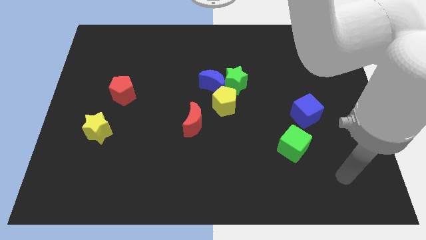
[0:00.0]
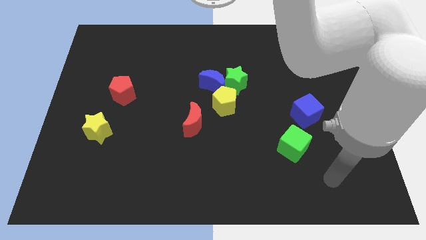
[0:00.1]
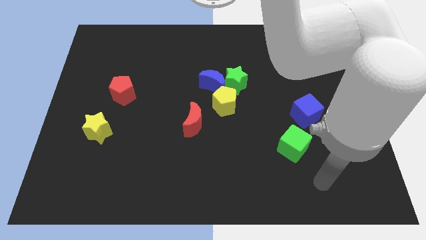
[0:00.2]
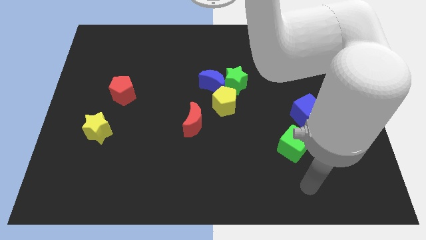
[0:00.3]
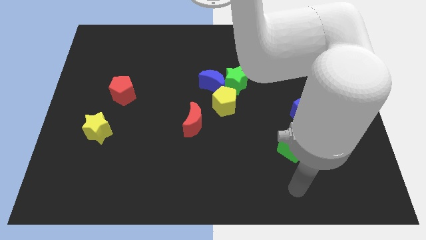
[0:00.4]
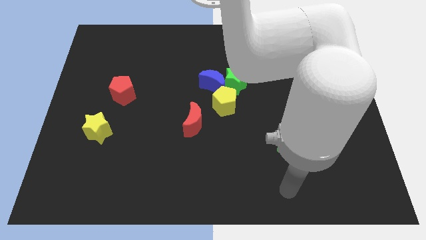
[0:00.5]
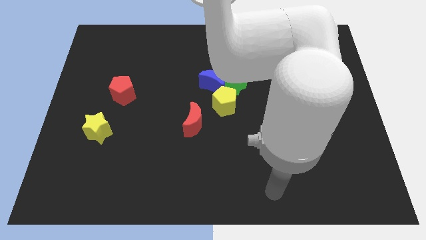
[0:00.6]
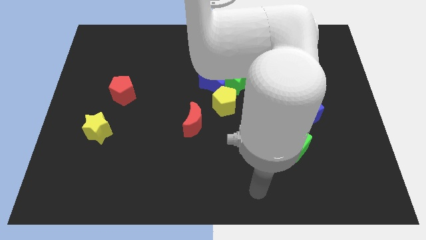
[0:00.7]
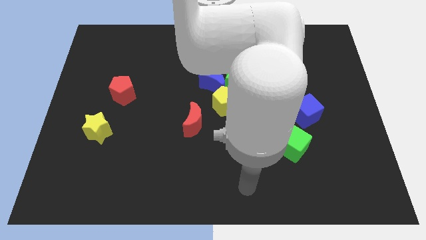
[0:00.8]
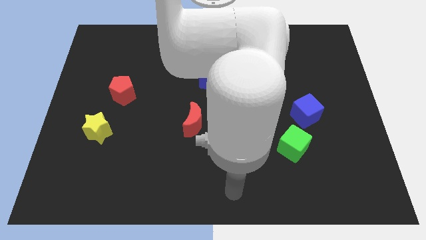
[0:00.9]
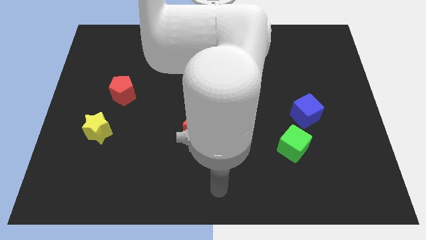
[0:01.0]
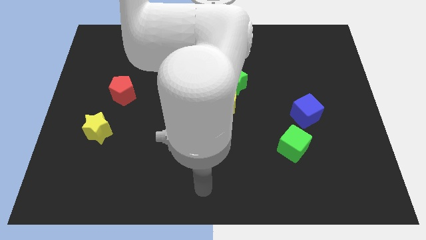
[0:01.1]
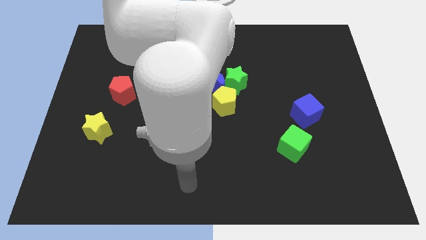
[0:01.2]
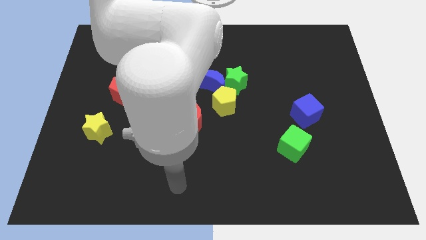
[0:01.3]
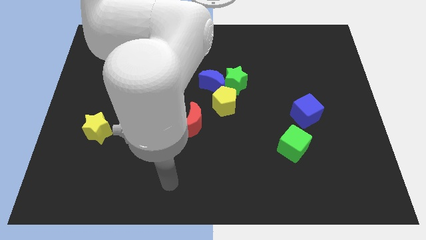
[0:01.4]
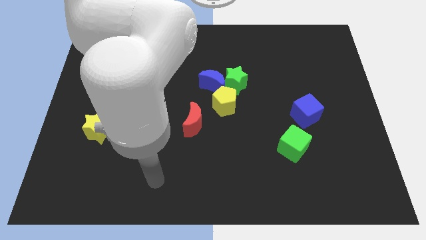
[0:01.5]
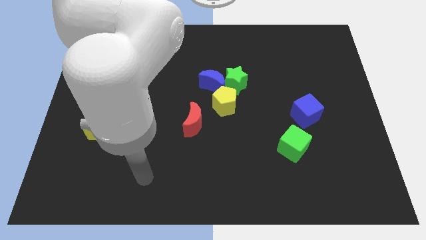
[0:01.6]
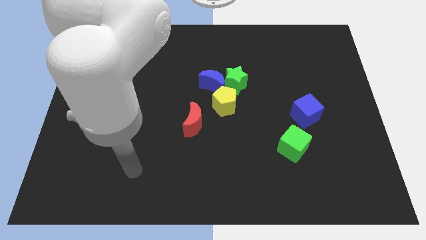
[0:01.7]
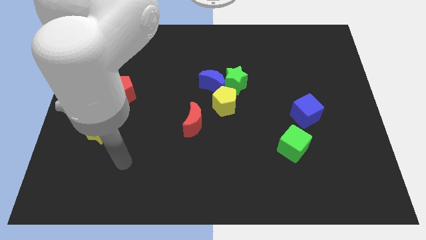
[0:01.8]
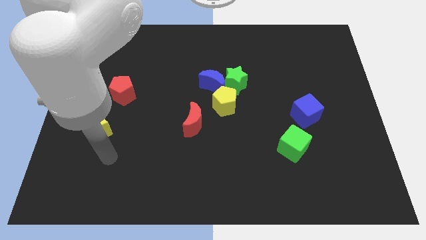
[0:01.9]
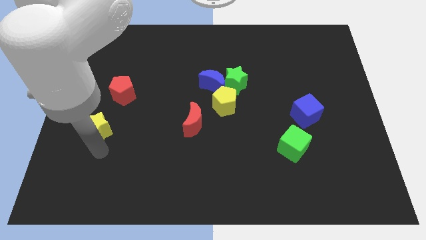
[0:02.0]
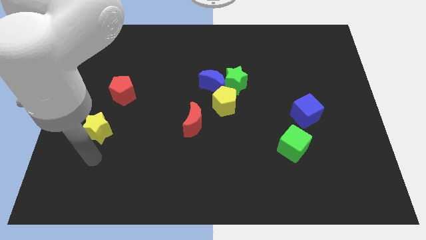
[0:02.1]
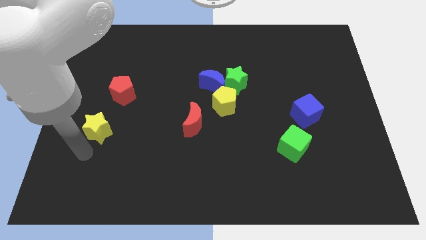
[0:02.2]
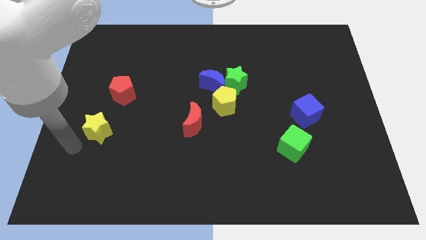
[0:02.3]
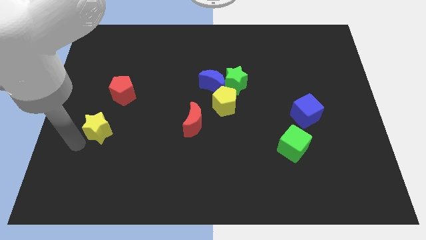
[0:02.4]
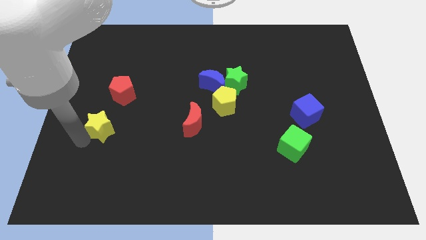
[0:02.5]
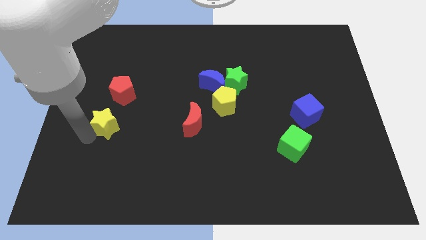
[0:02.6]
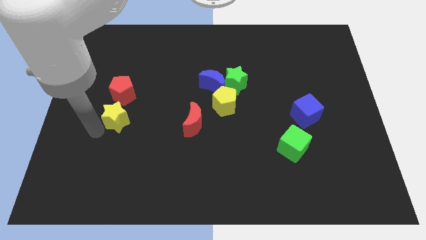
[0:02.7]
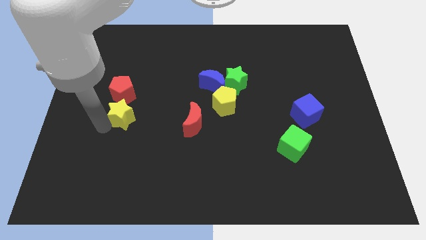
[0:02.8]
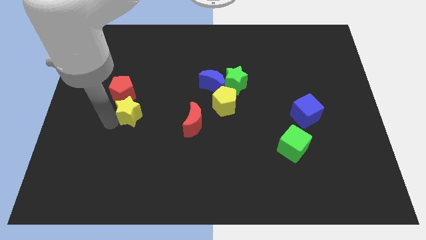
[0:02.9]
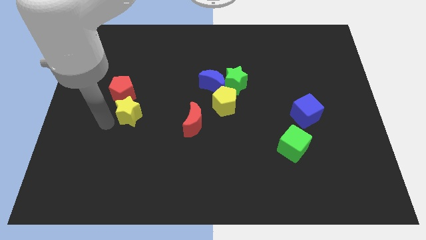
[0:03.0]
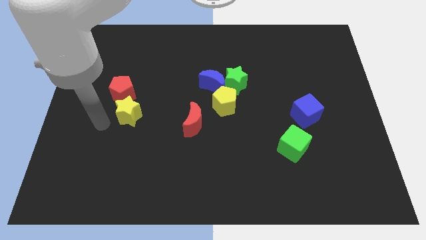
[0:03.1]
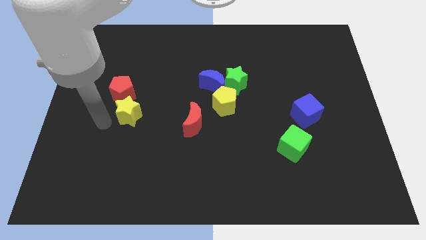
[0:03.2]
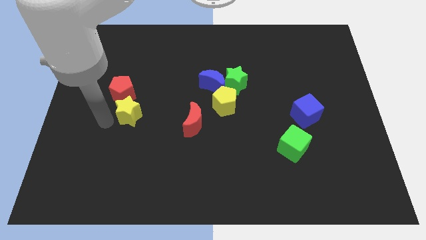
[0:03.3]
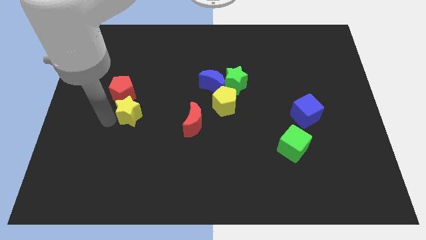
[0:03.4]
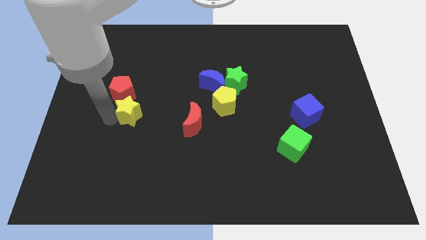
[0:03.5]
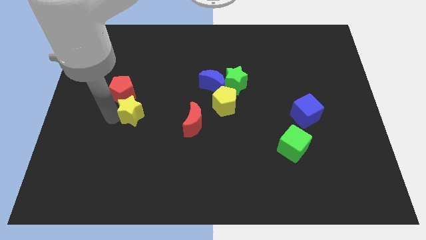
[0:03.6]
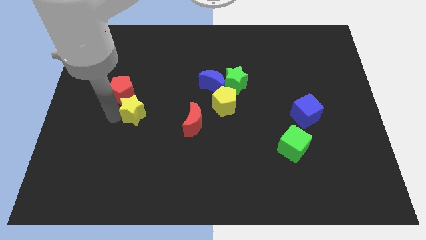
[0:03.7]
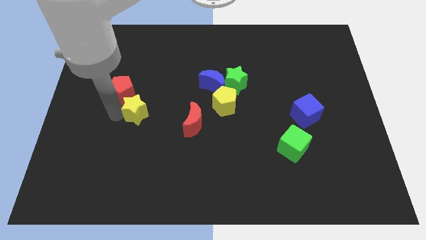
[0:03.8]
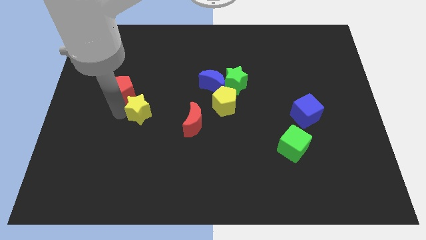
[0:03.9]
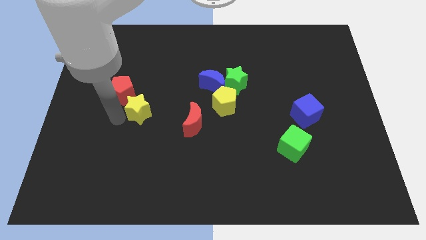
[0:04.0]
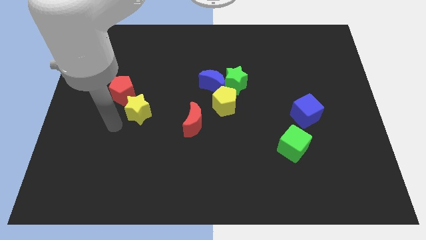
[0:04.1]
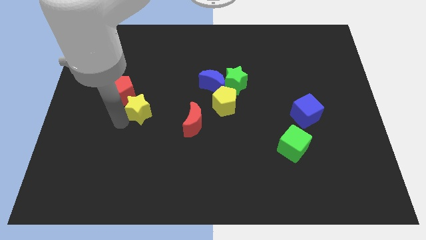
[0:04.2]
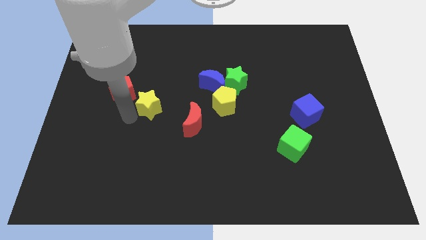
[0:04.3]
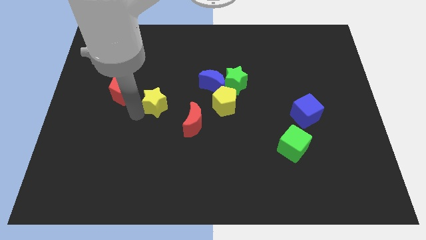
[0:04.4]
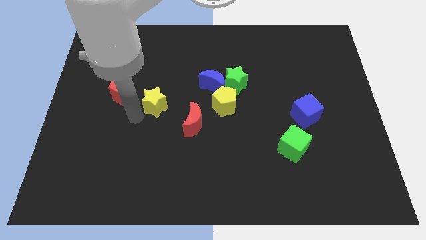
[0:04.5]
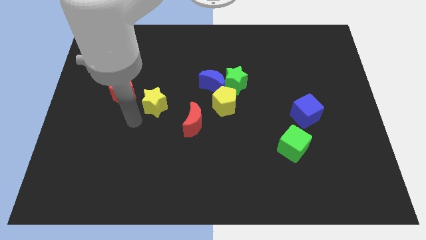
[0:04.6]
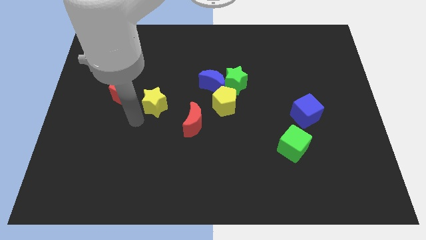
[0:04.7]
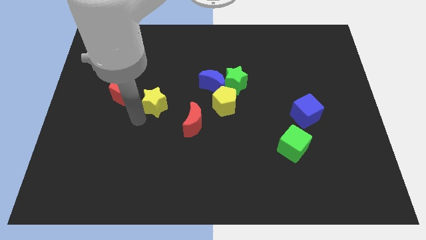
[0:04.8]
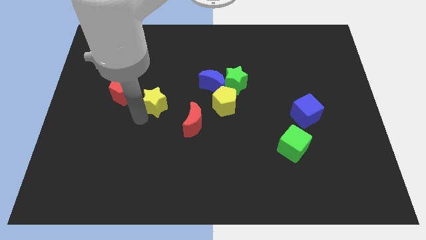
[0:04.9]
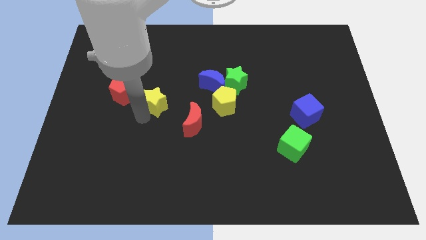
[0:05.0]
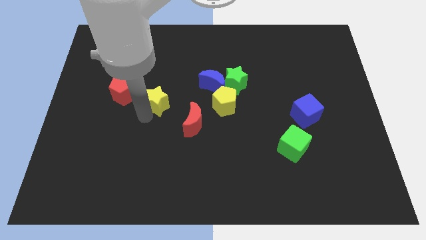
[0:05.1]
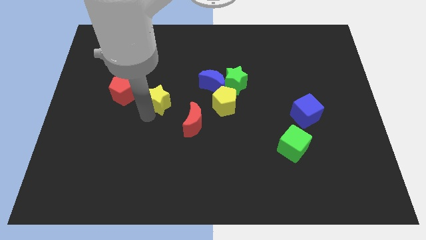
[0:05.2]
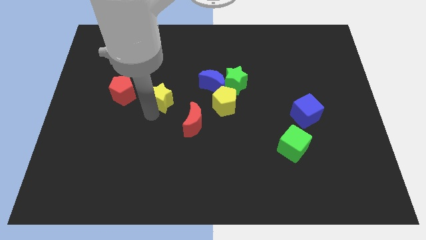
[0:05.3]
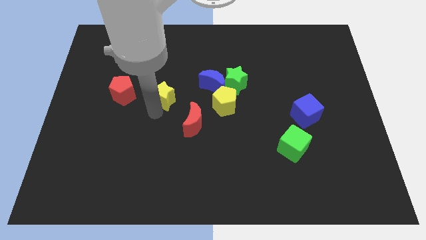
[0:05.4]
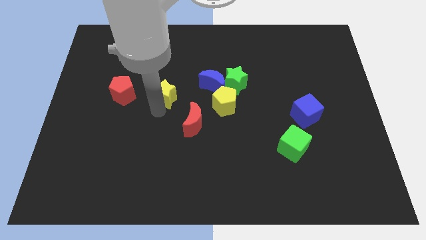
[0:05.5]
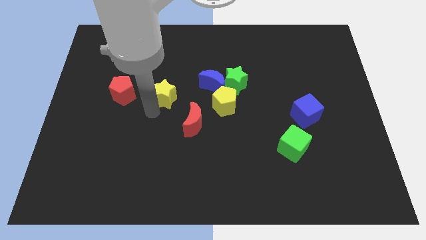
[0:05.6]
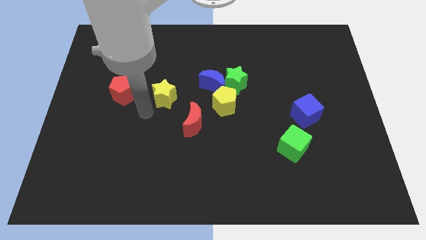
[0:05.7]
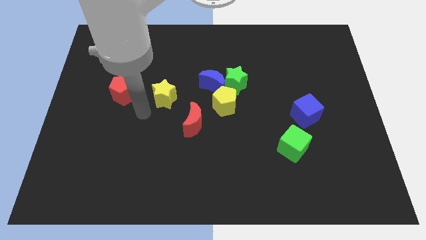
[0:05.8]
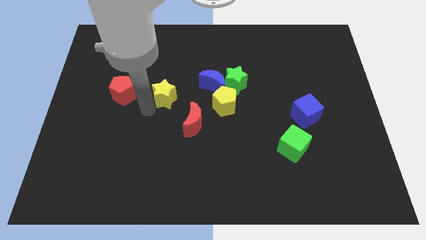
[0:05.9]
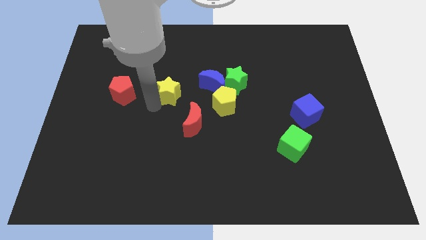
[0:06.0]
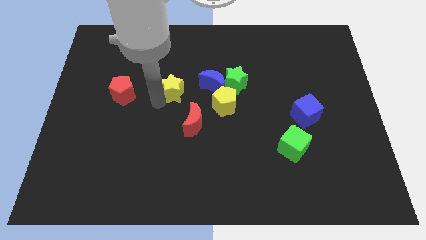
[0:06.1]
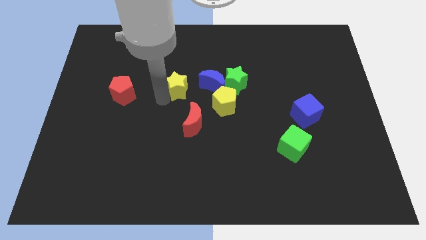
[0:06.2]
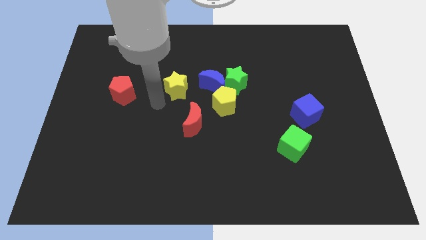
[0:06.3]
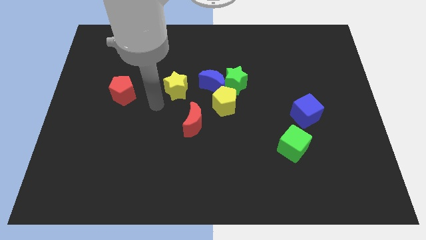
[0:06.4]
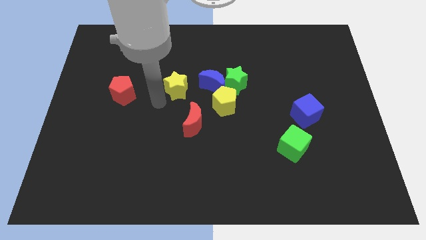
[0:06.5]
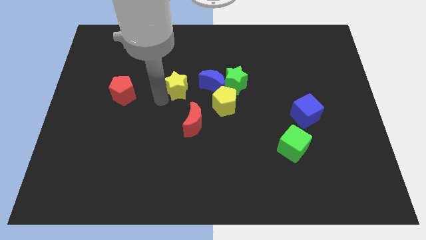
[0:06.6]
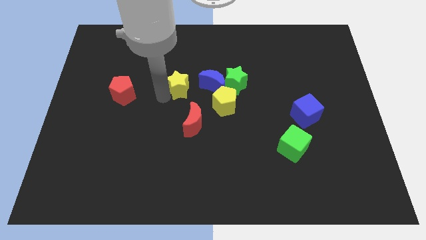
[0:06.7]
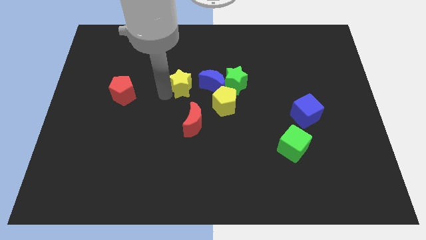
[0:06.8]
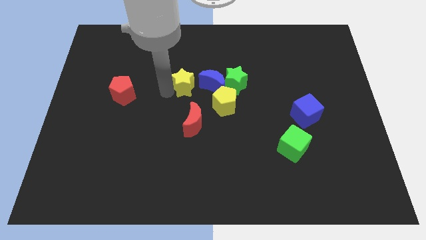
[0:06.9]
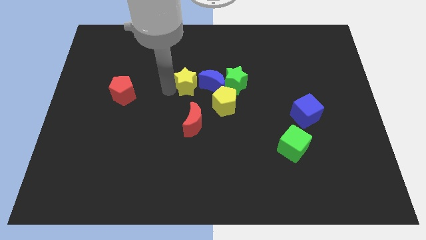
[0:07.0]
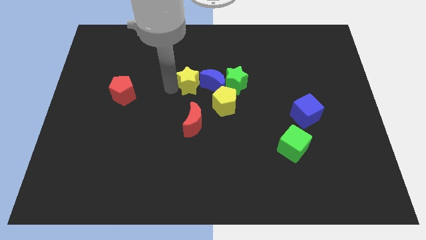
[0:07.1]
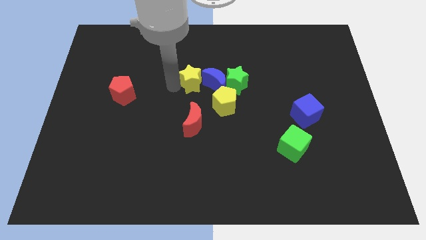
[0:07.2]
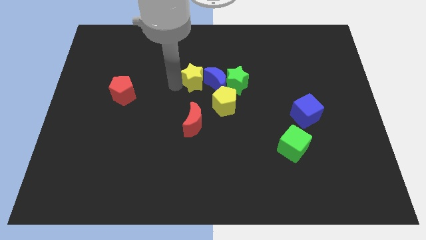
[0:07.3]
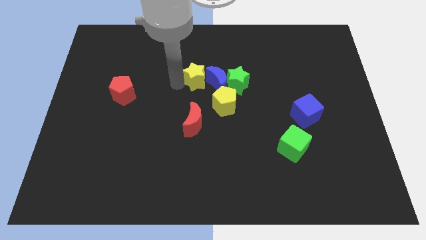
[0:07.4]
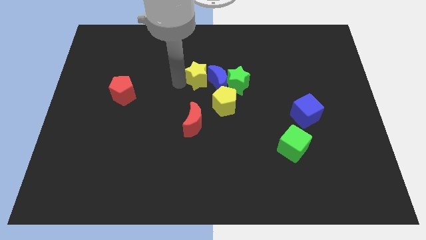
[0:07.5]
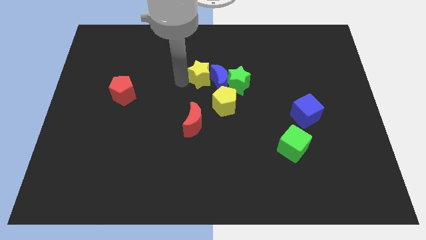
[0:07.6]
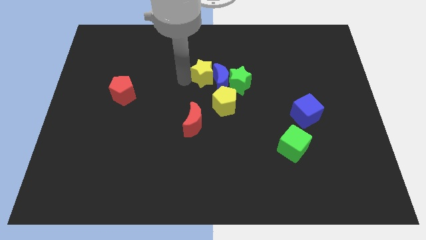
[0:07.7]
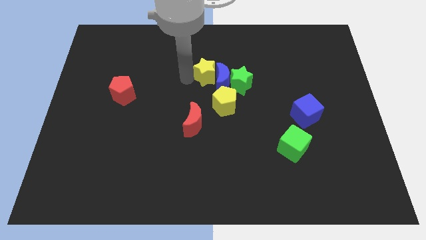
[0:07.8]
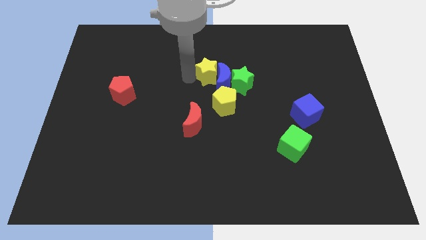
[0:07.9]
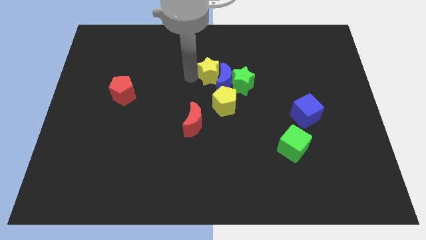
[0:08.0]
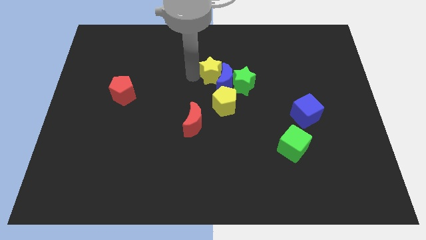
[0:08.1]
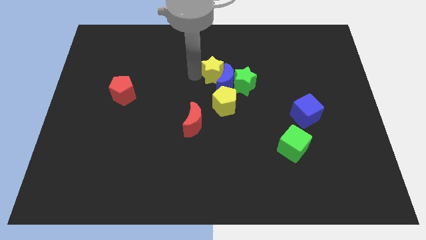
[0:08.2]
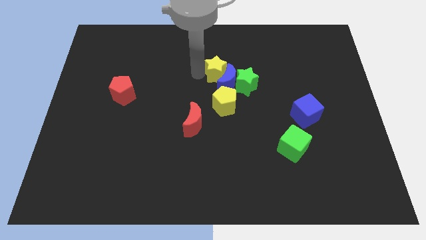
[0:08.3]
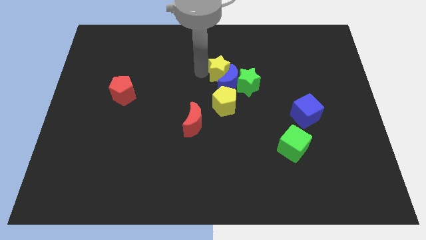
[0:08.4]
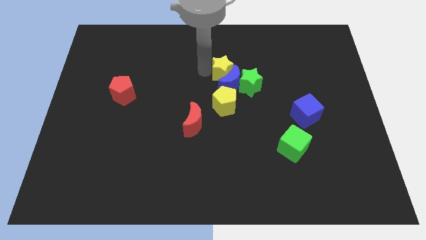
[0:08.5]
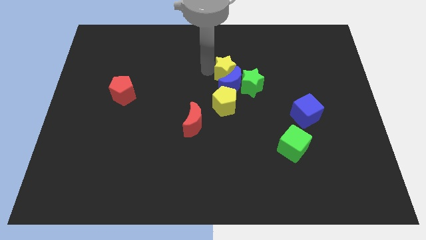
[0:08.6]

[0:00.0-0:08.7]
put the yellow star to the top right side of the blue moon
